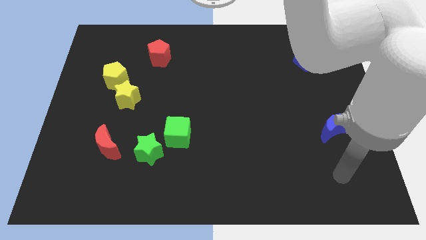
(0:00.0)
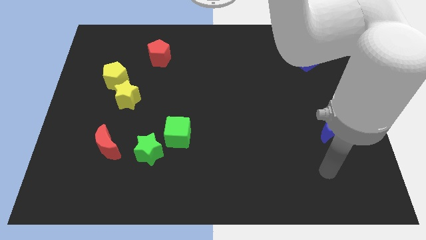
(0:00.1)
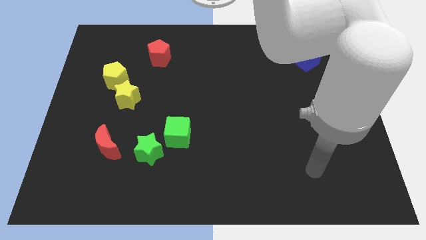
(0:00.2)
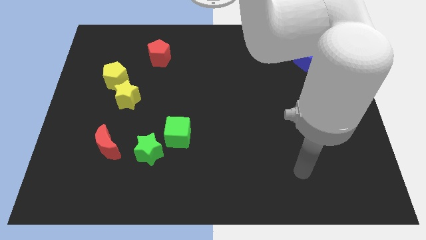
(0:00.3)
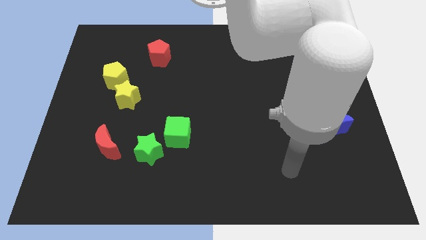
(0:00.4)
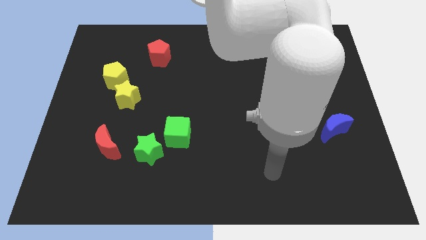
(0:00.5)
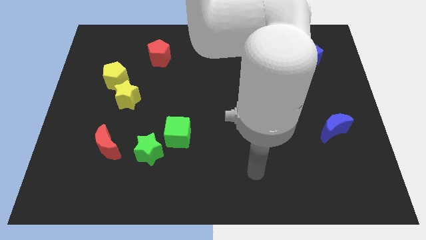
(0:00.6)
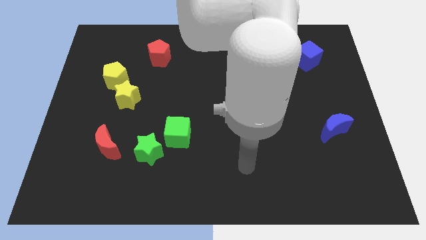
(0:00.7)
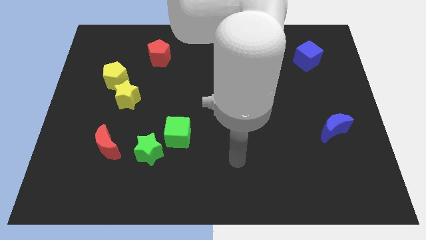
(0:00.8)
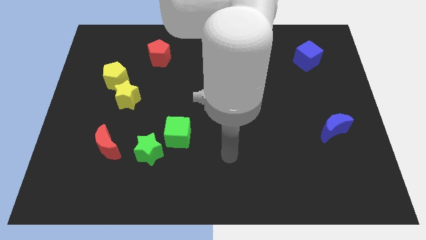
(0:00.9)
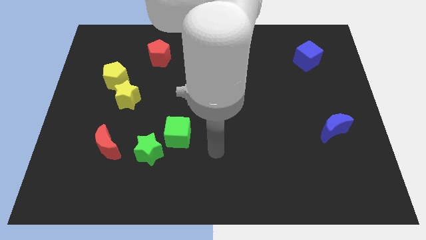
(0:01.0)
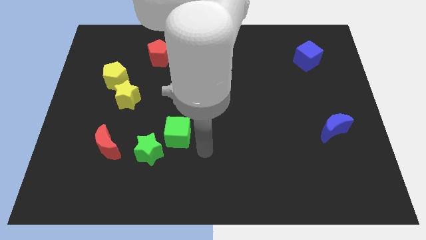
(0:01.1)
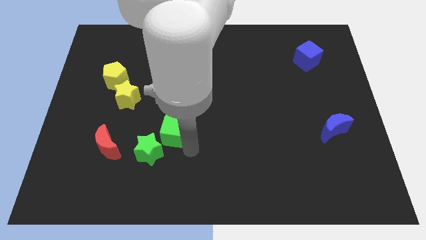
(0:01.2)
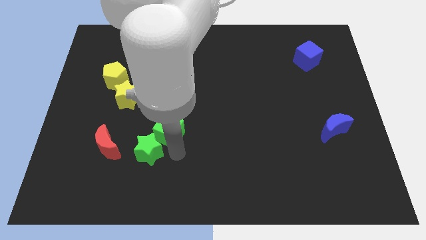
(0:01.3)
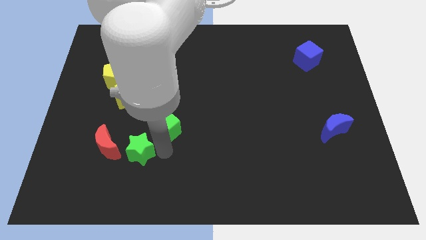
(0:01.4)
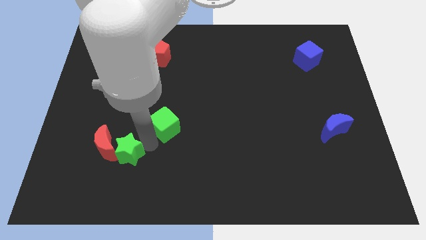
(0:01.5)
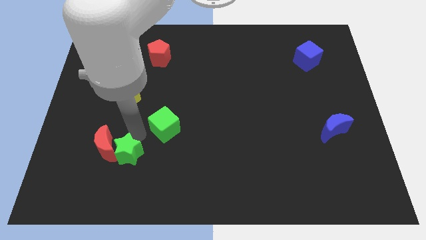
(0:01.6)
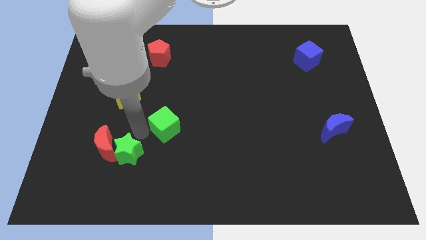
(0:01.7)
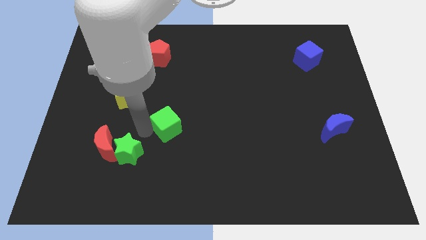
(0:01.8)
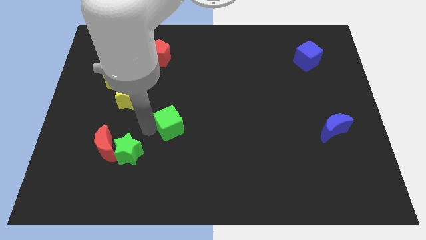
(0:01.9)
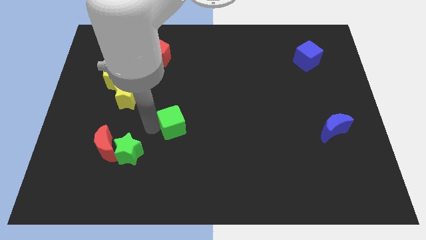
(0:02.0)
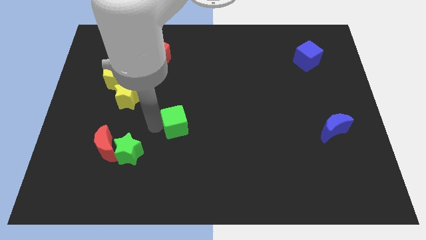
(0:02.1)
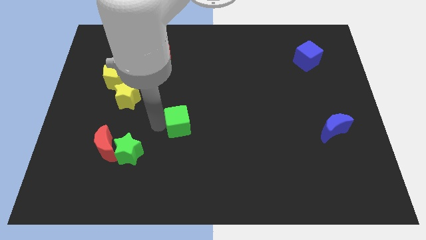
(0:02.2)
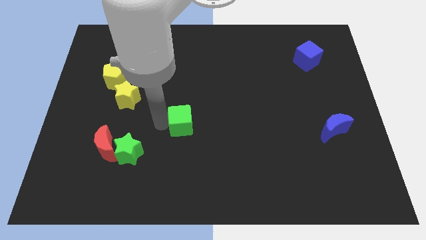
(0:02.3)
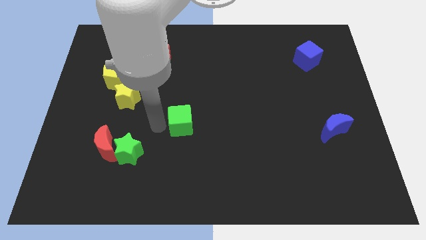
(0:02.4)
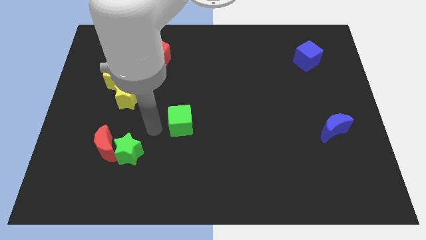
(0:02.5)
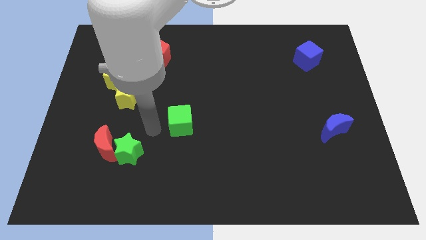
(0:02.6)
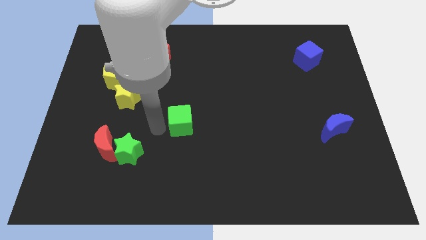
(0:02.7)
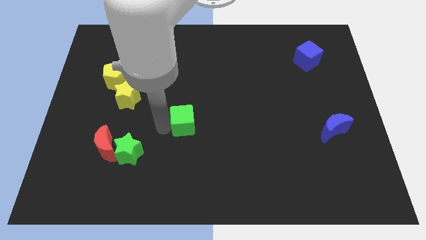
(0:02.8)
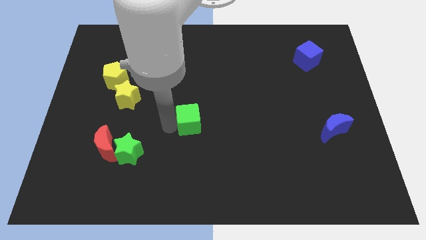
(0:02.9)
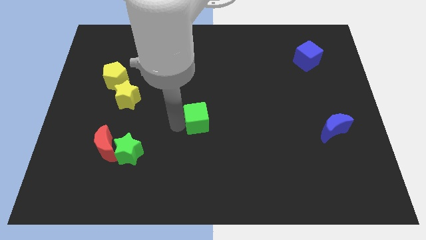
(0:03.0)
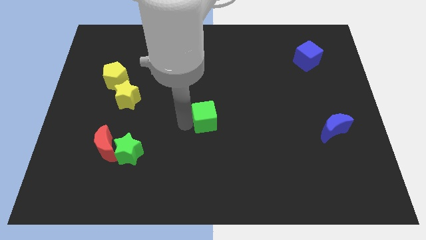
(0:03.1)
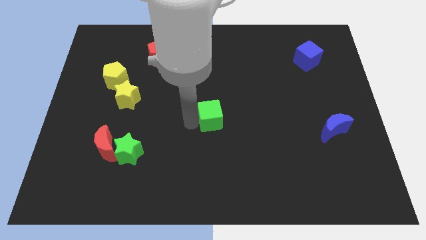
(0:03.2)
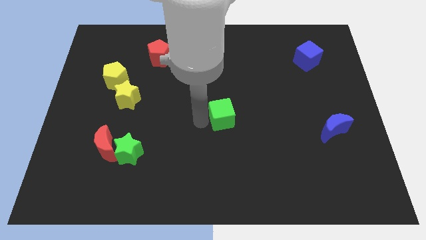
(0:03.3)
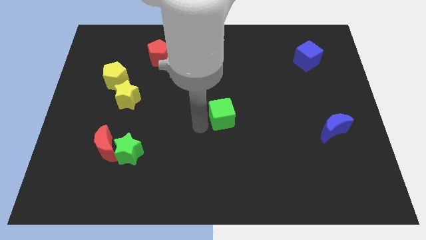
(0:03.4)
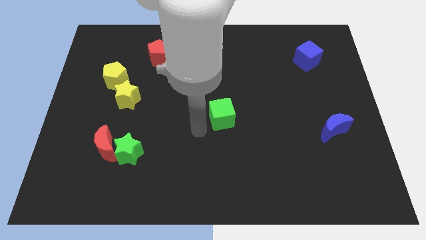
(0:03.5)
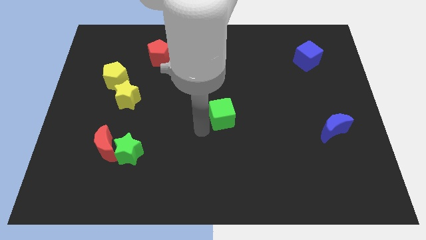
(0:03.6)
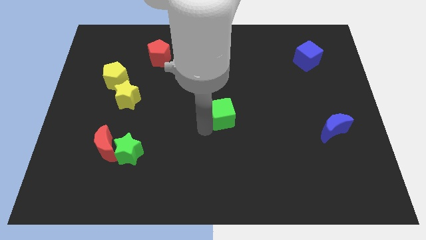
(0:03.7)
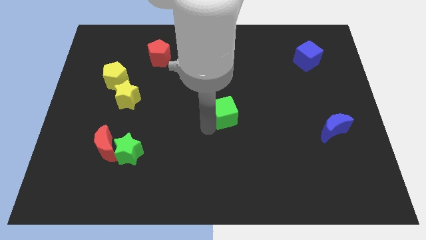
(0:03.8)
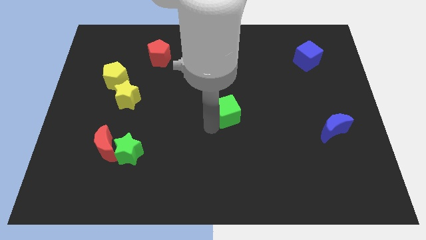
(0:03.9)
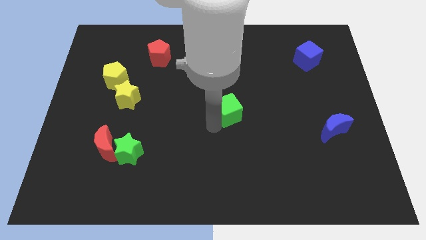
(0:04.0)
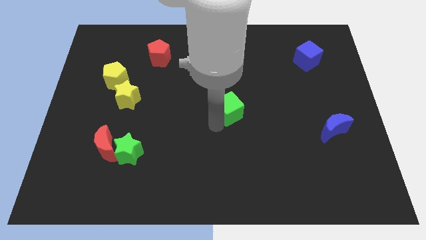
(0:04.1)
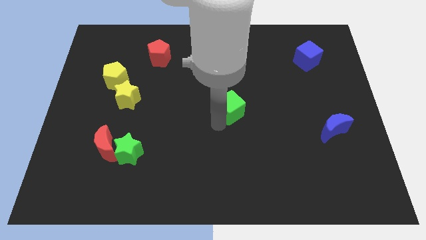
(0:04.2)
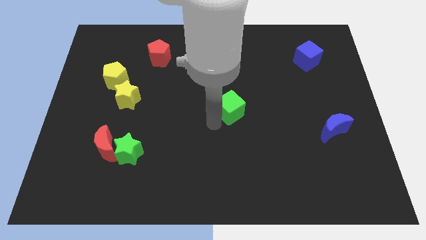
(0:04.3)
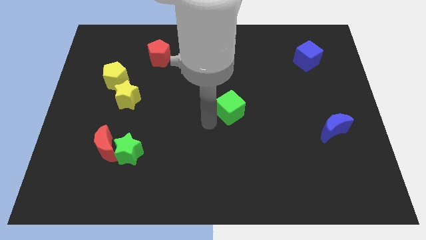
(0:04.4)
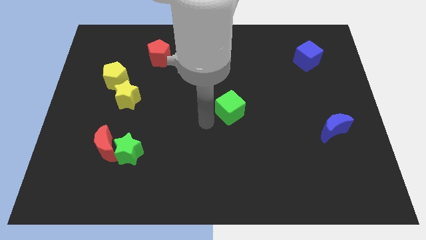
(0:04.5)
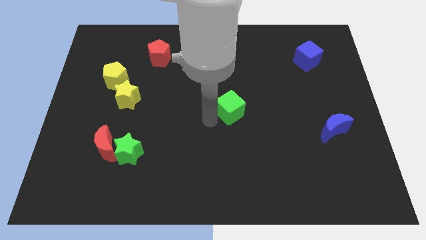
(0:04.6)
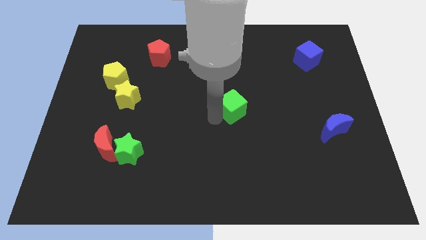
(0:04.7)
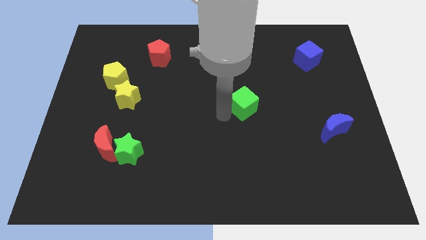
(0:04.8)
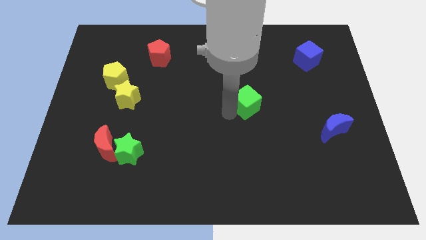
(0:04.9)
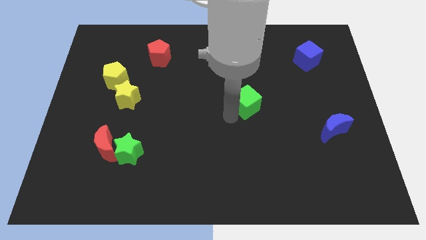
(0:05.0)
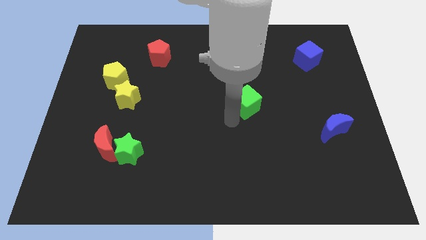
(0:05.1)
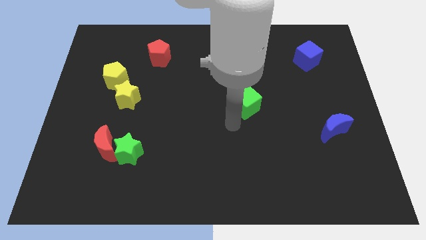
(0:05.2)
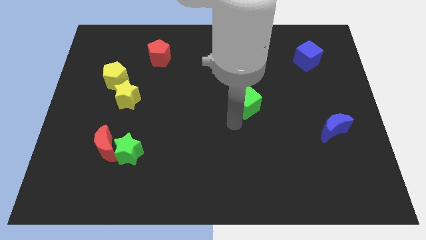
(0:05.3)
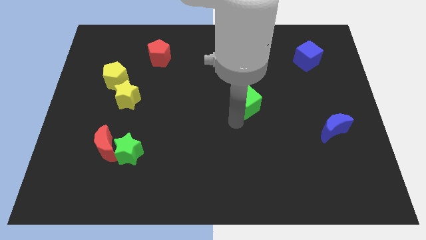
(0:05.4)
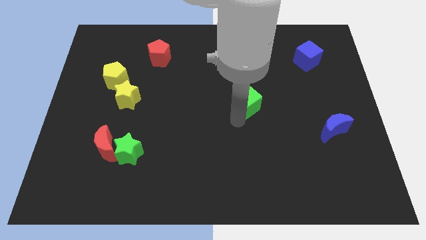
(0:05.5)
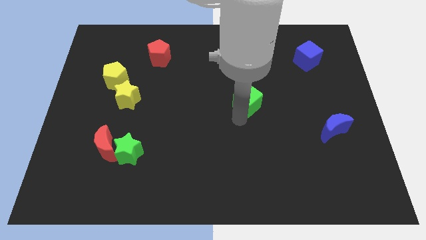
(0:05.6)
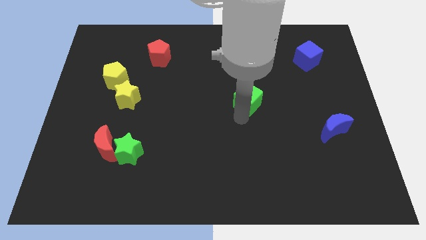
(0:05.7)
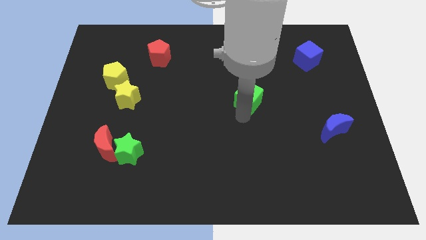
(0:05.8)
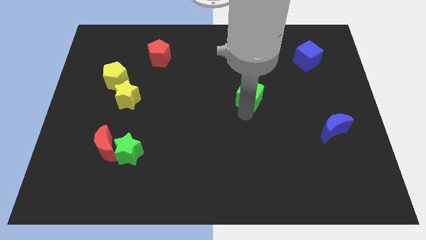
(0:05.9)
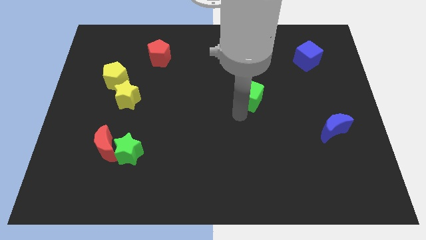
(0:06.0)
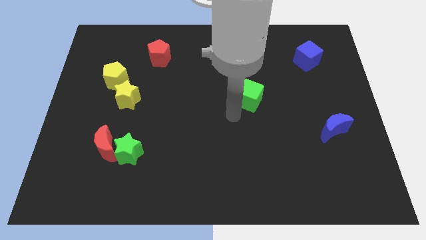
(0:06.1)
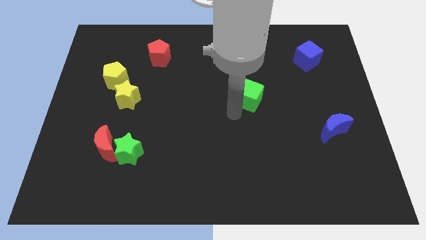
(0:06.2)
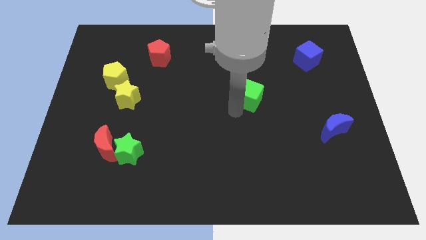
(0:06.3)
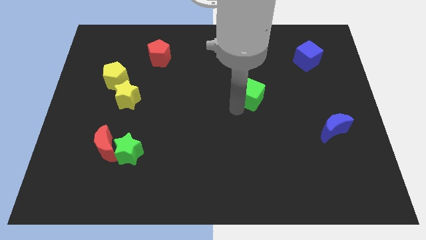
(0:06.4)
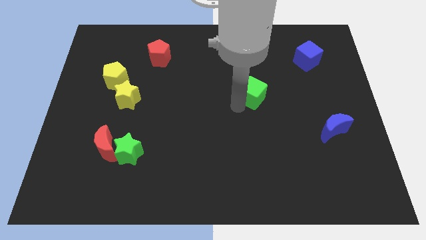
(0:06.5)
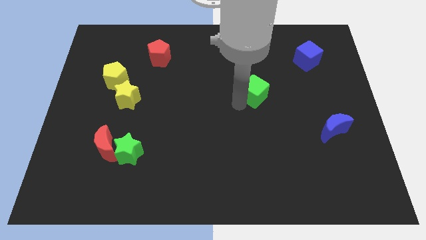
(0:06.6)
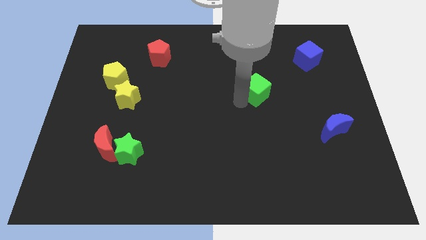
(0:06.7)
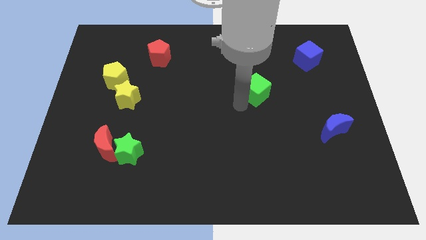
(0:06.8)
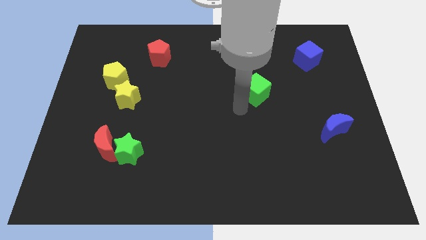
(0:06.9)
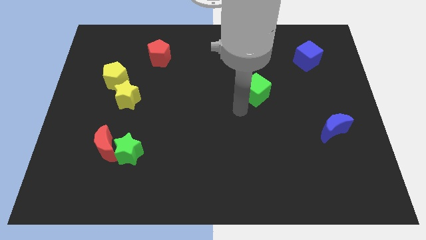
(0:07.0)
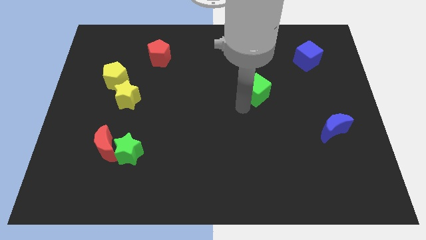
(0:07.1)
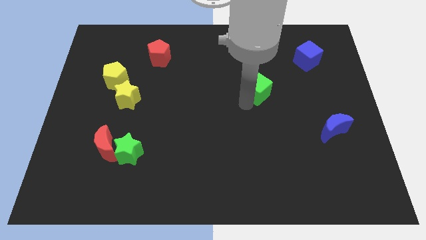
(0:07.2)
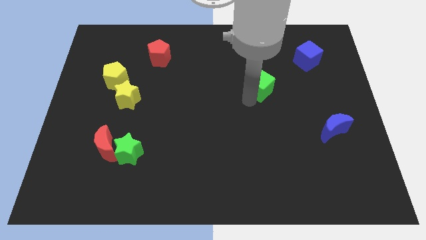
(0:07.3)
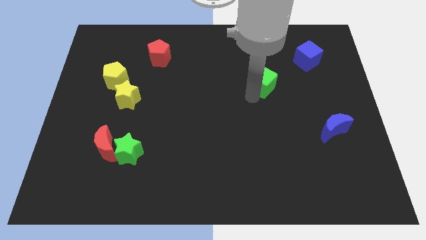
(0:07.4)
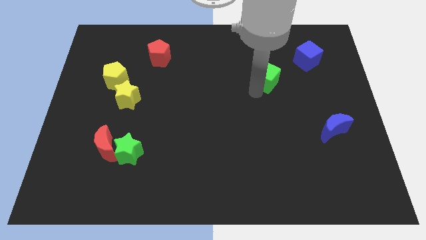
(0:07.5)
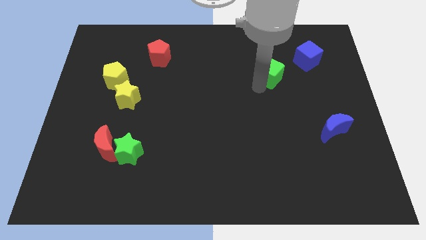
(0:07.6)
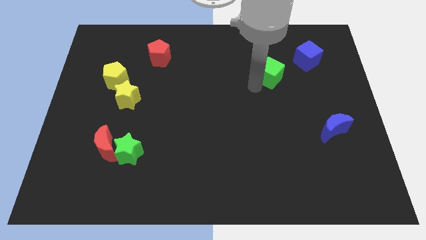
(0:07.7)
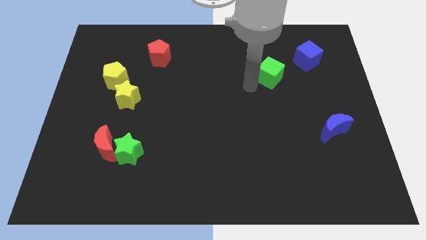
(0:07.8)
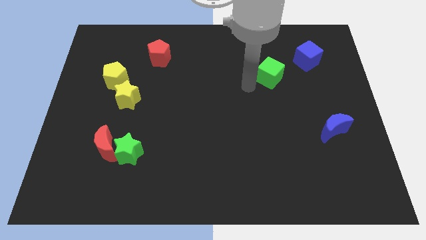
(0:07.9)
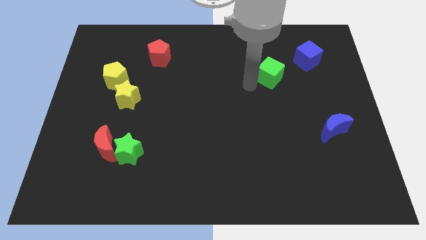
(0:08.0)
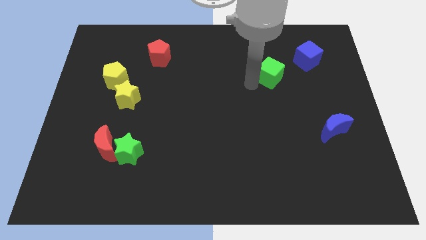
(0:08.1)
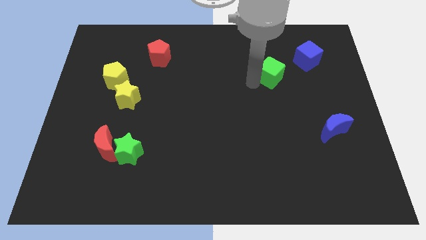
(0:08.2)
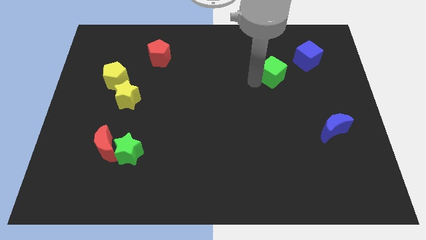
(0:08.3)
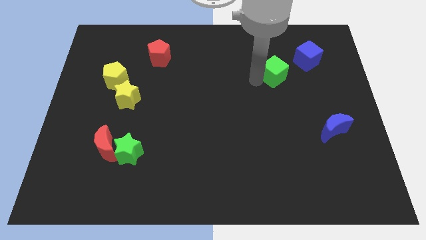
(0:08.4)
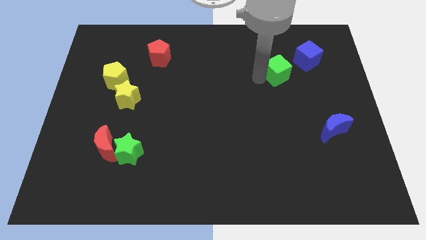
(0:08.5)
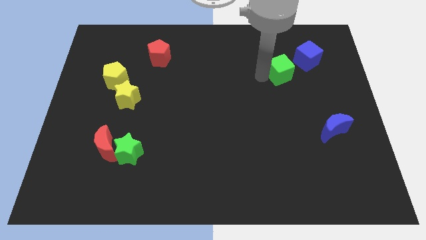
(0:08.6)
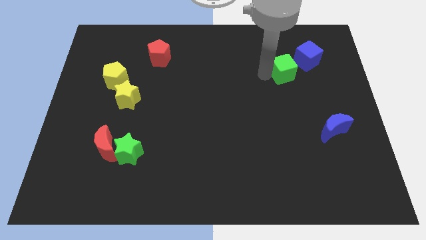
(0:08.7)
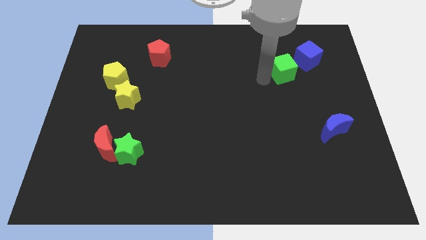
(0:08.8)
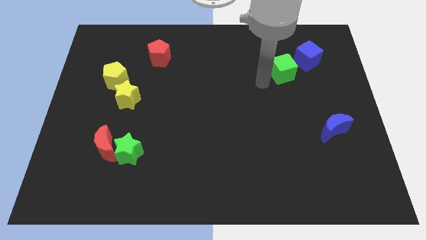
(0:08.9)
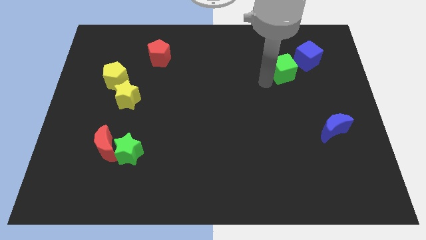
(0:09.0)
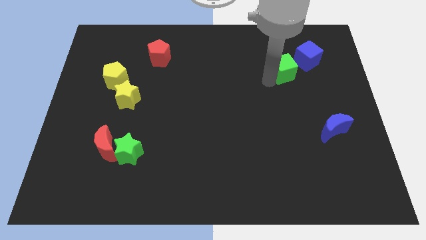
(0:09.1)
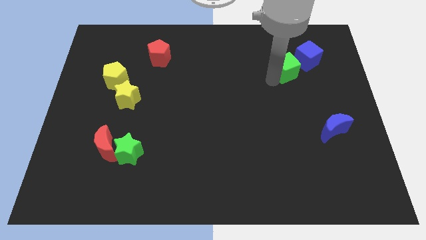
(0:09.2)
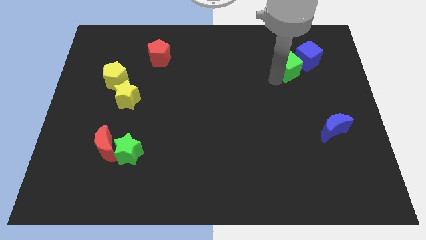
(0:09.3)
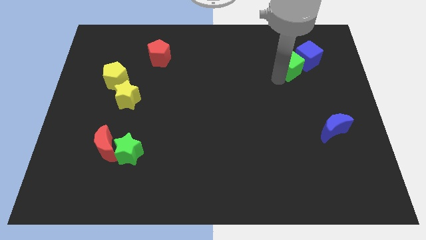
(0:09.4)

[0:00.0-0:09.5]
push the green cube next to the blue cube
